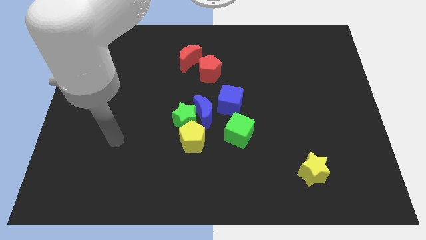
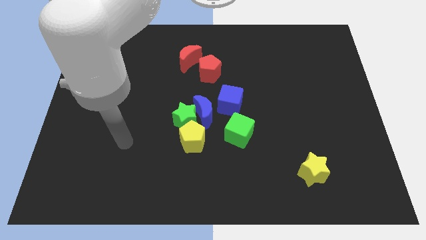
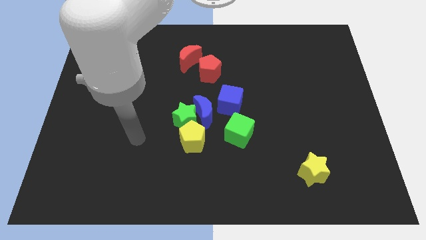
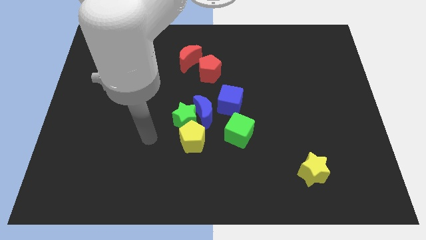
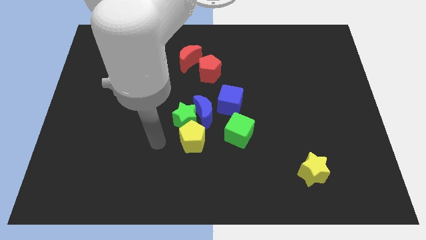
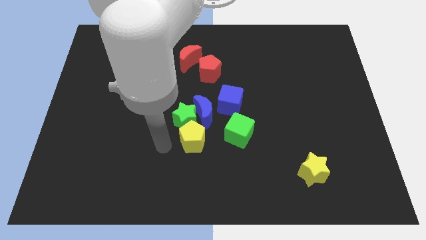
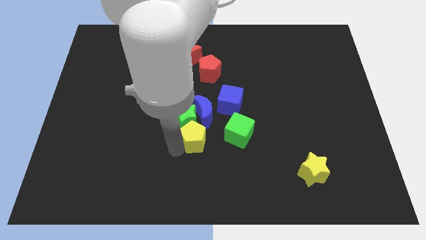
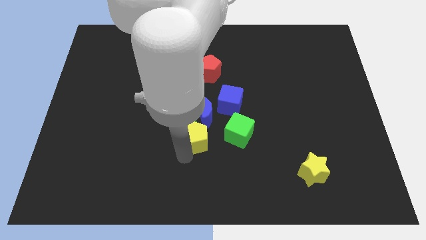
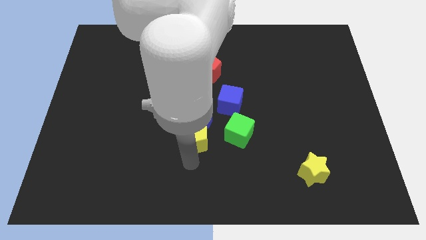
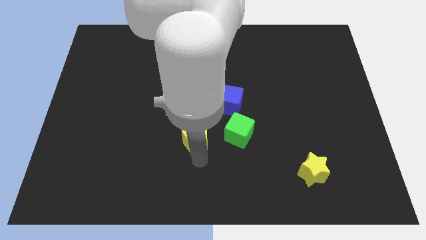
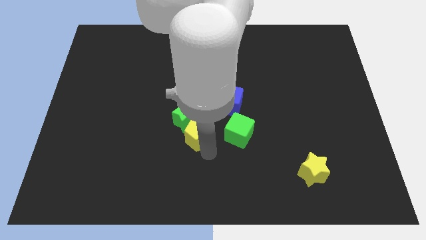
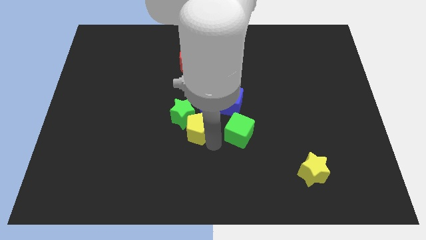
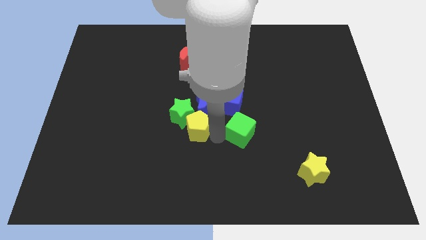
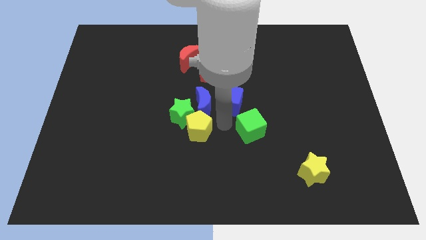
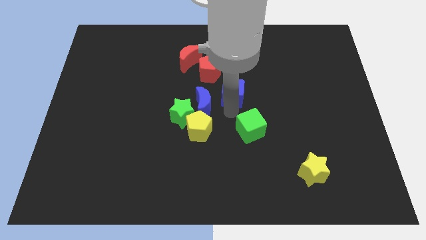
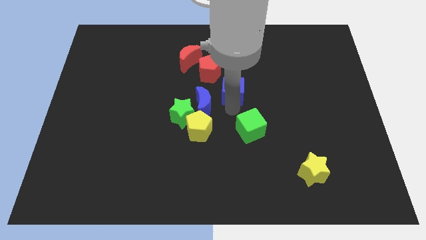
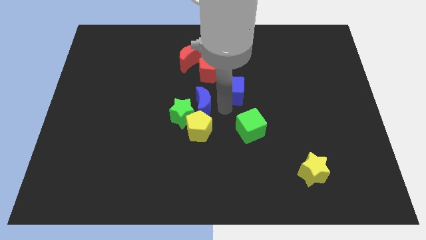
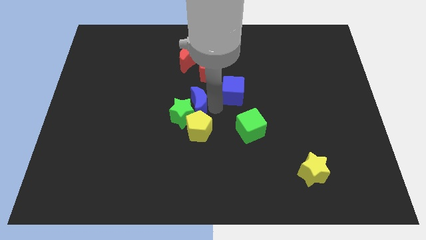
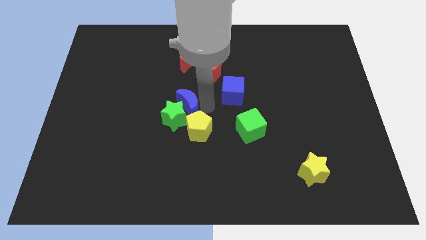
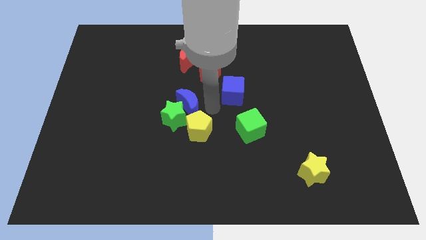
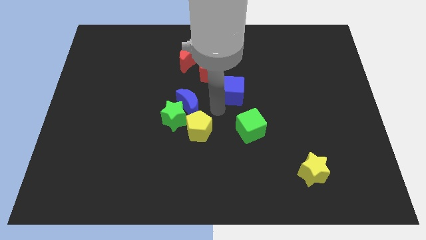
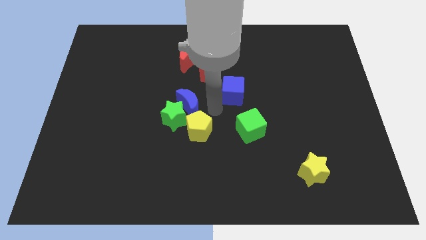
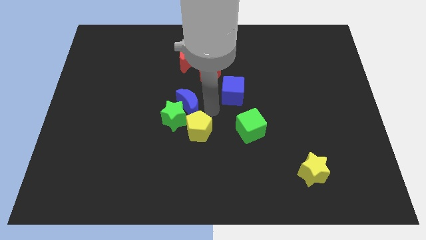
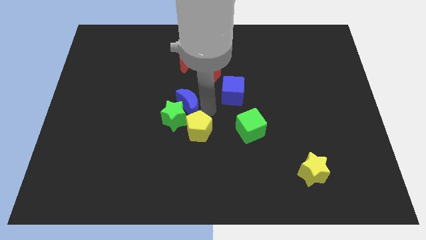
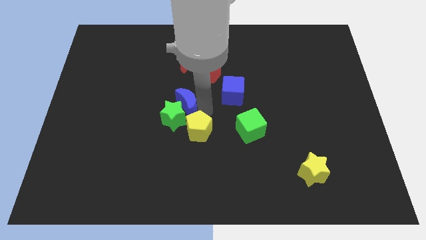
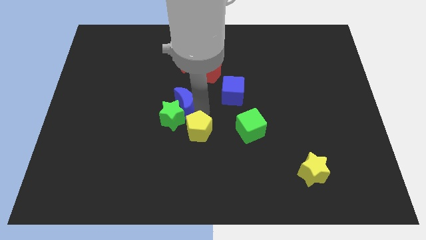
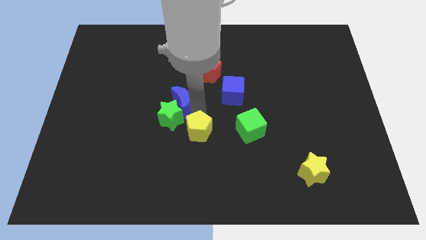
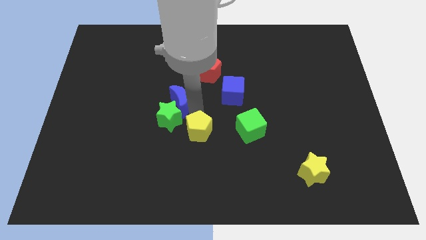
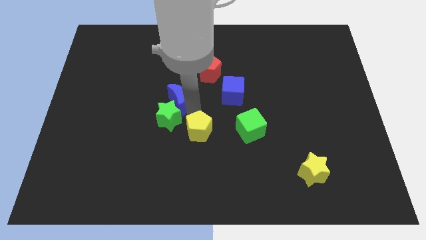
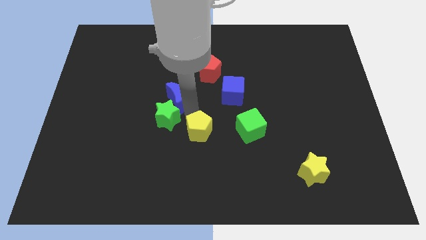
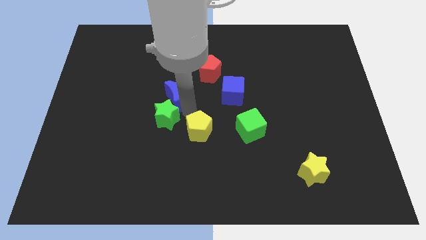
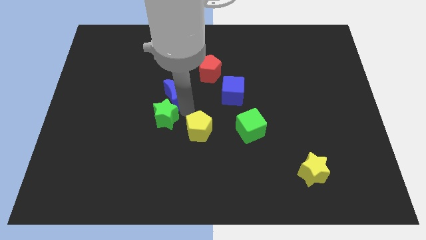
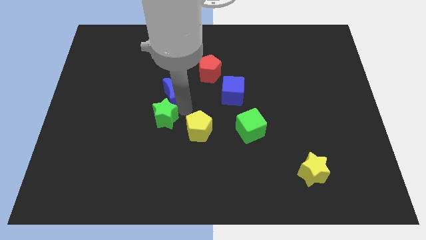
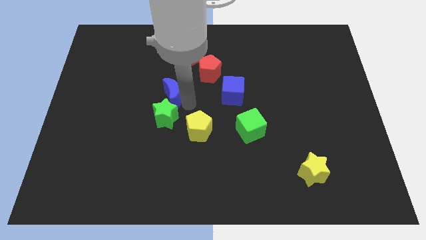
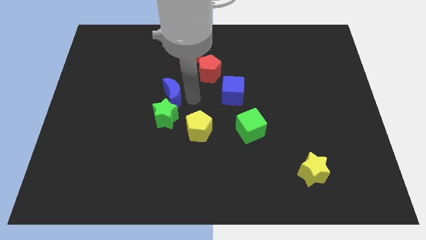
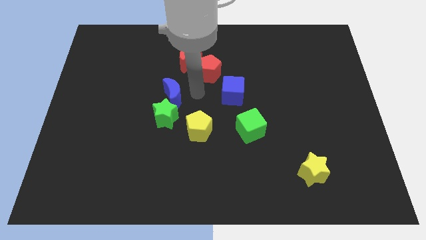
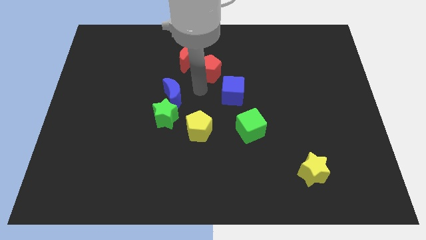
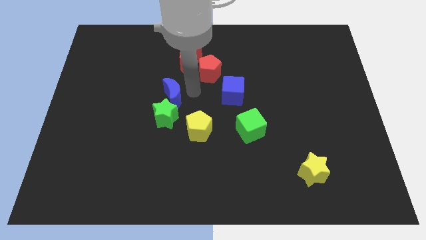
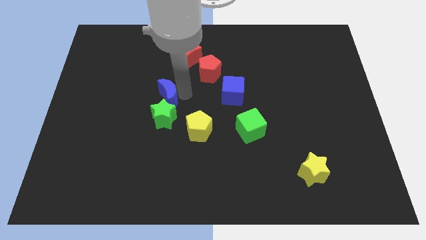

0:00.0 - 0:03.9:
move the blue moon left a little

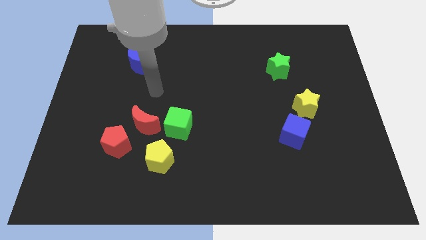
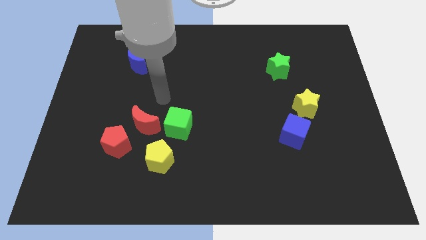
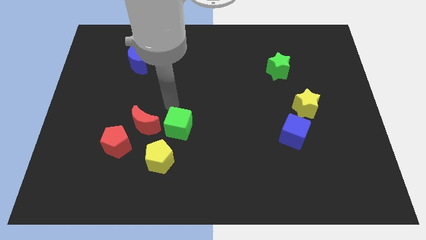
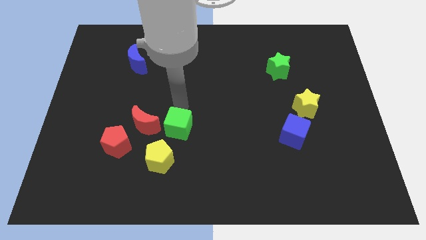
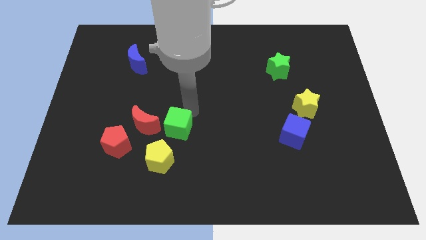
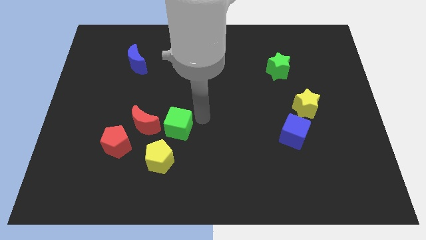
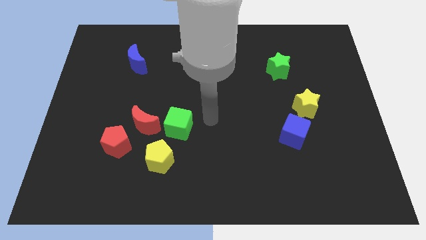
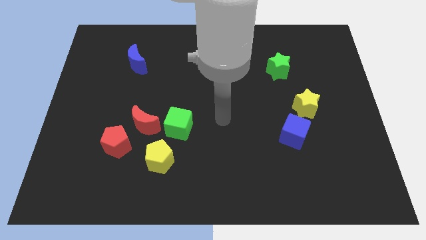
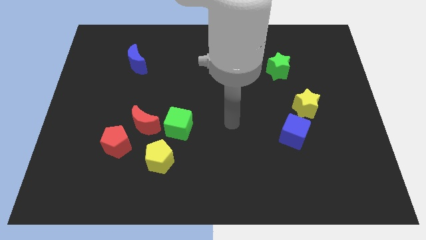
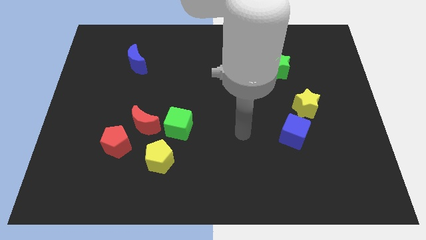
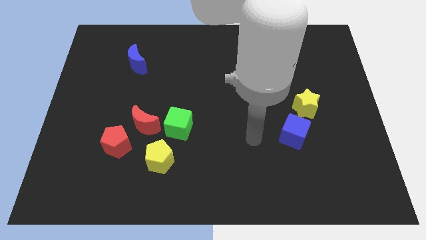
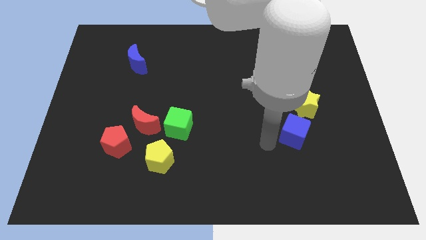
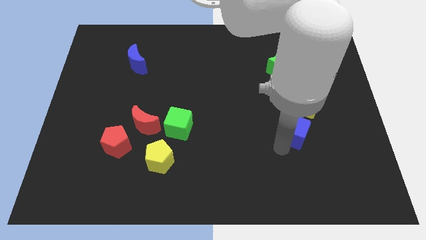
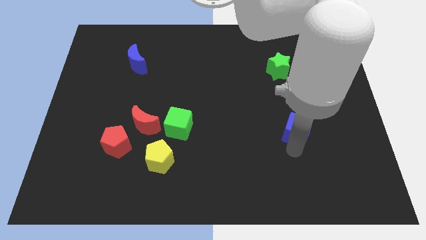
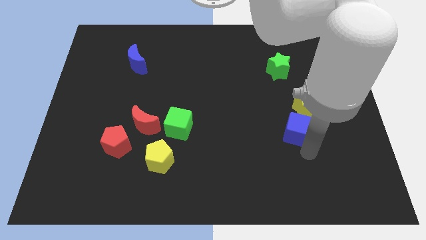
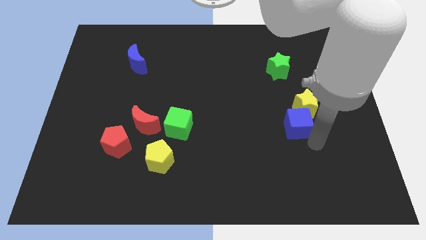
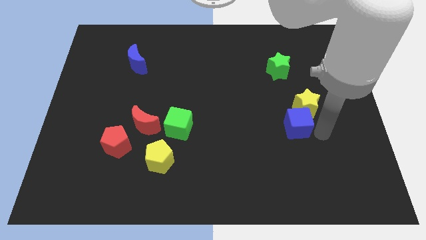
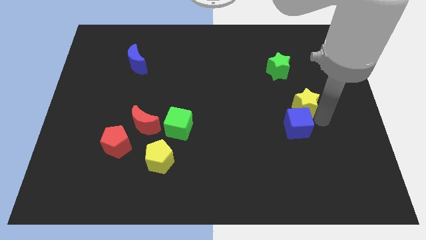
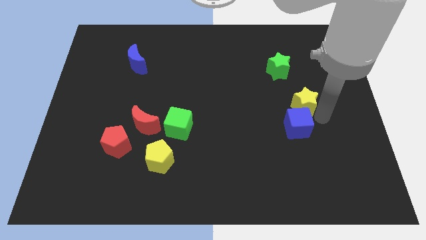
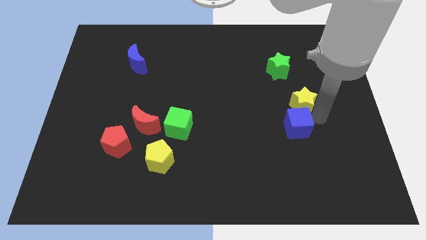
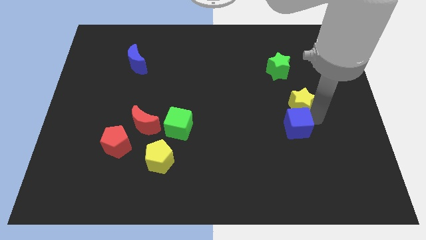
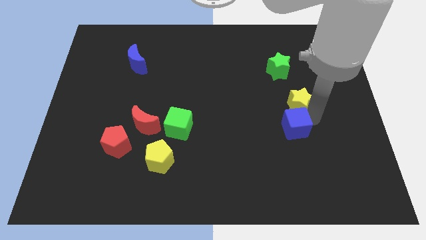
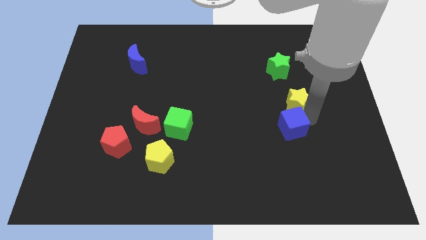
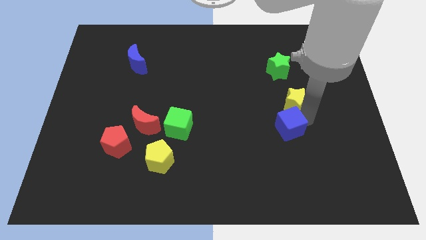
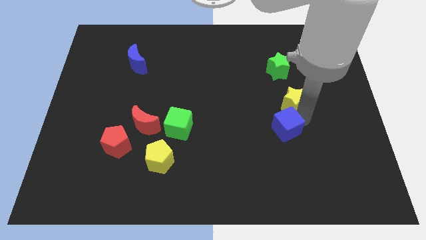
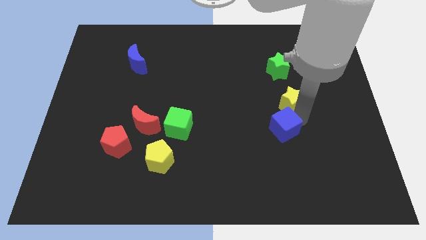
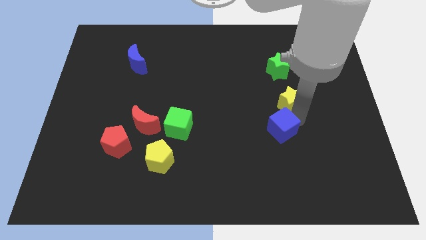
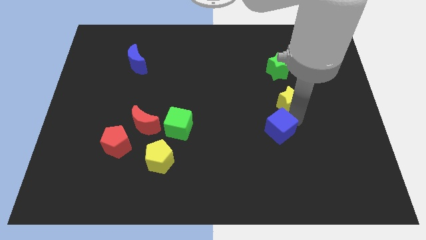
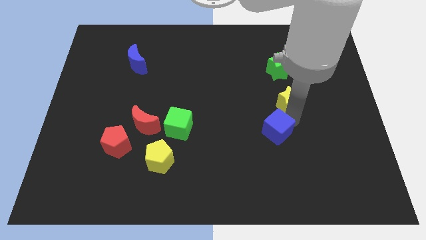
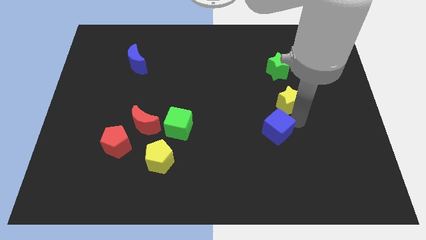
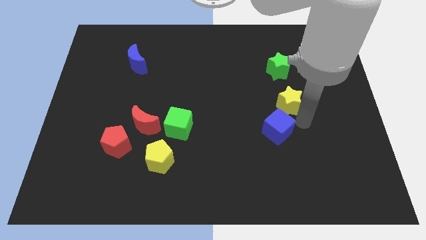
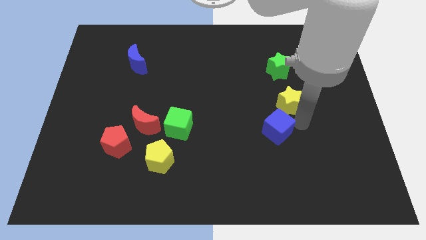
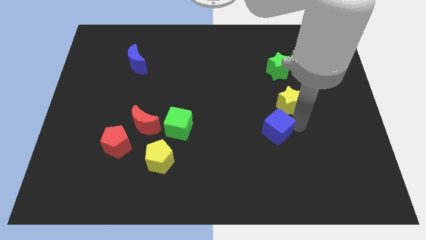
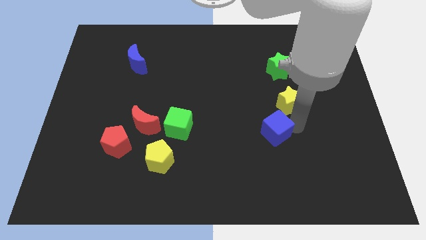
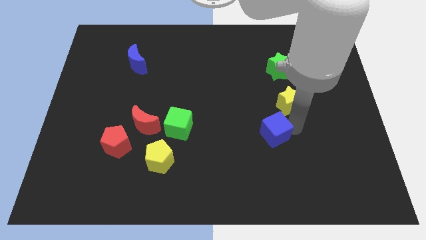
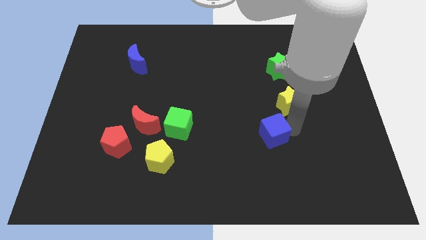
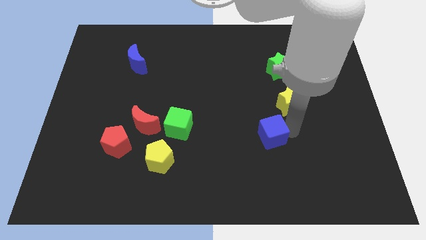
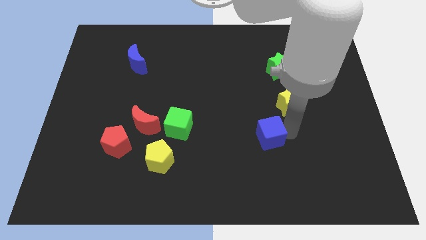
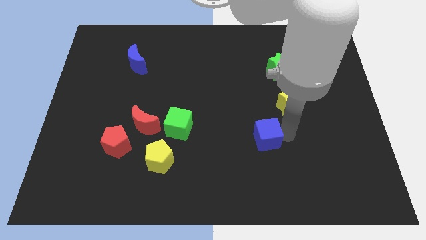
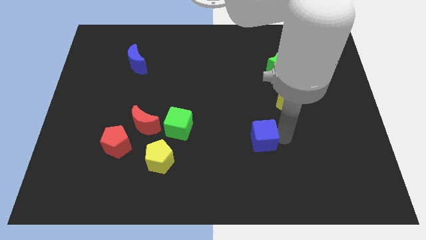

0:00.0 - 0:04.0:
slightly push the blue cube to the left

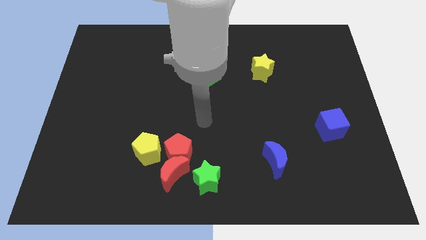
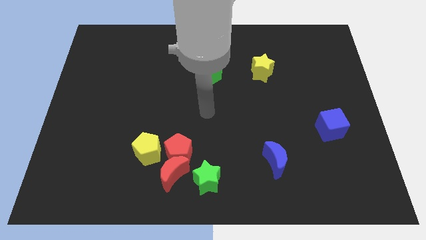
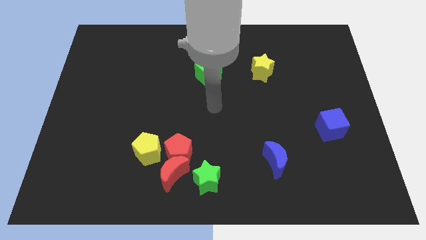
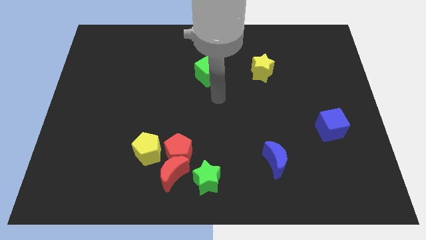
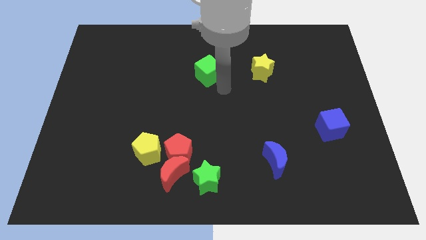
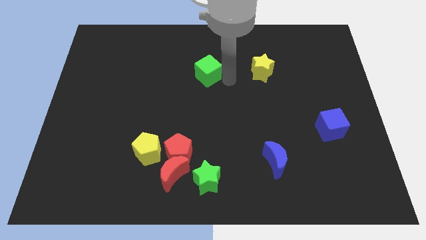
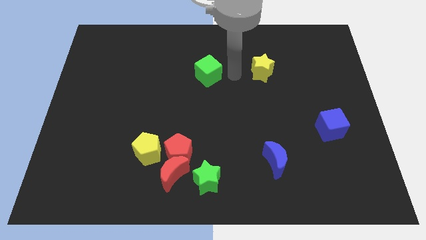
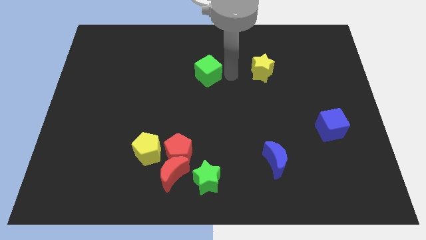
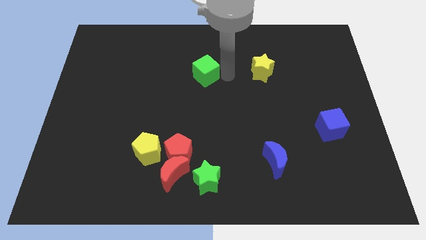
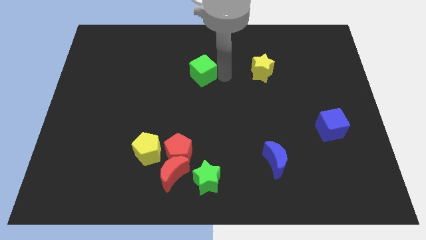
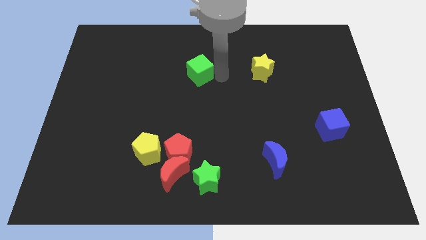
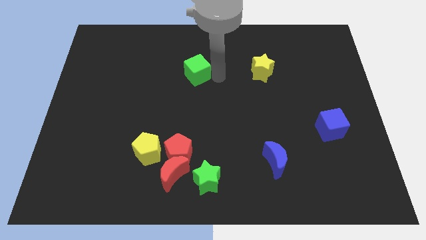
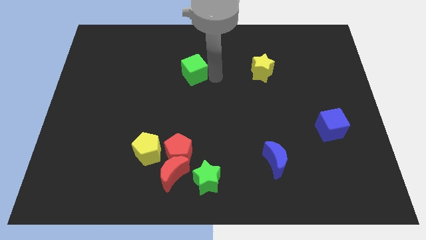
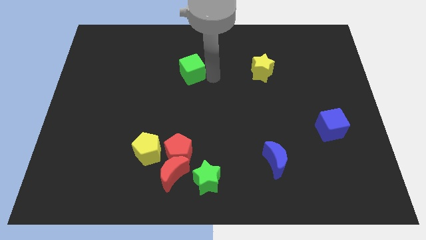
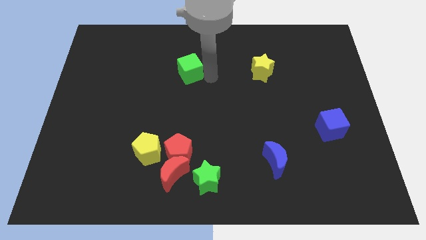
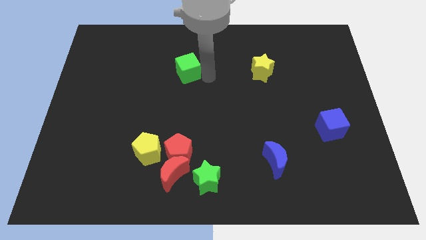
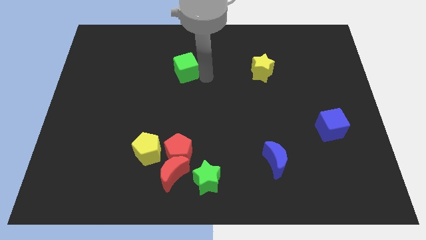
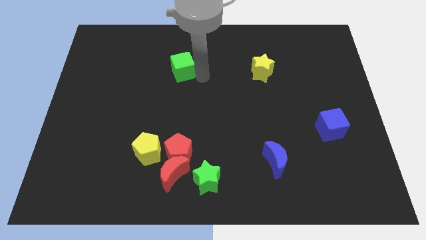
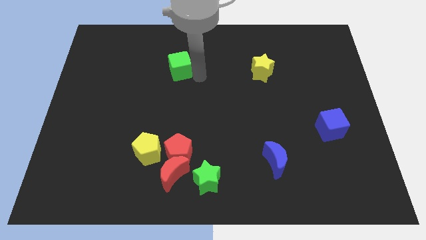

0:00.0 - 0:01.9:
push the green cube a bit to the left
